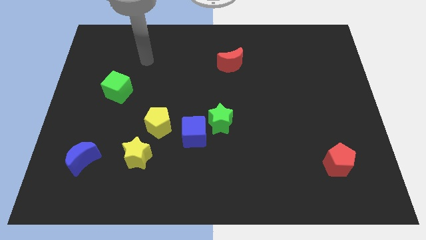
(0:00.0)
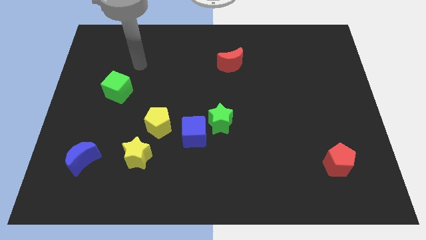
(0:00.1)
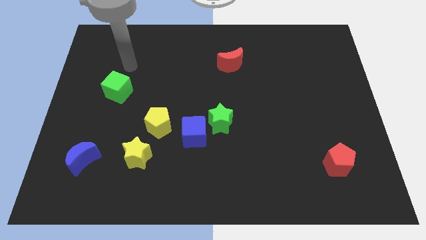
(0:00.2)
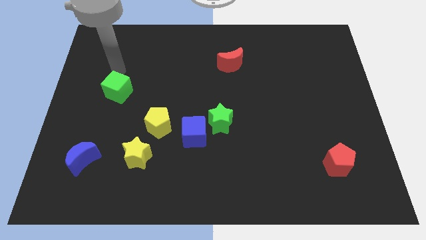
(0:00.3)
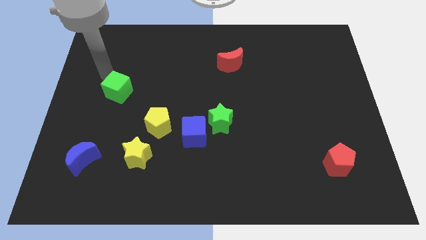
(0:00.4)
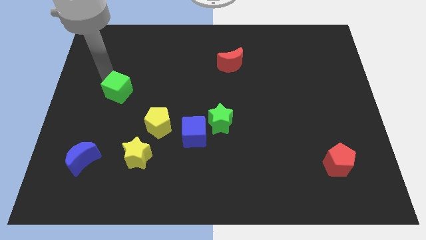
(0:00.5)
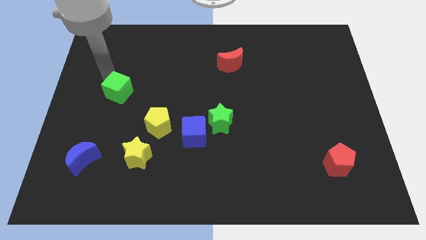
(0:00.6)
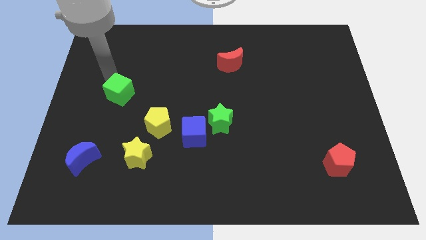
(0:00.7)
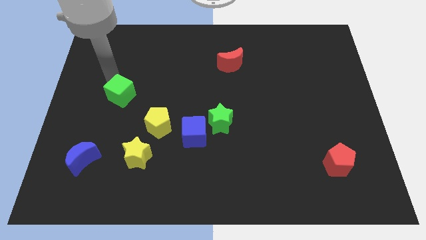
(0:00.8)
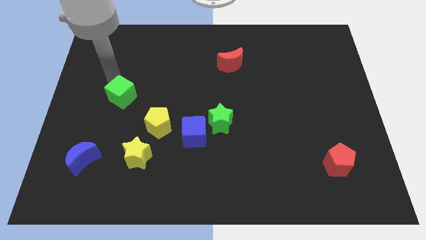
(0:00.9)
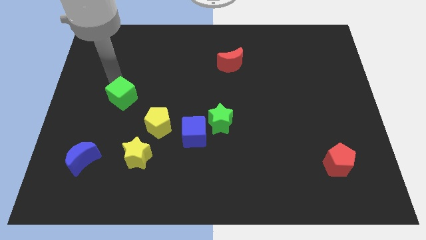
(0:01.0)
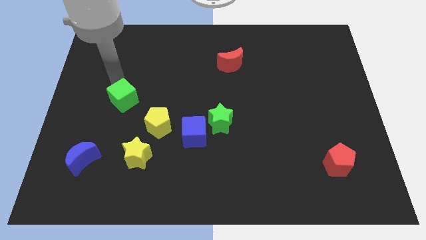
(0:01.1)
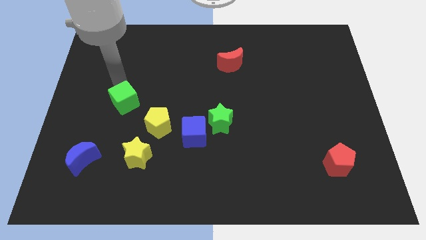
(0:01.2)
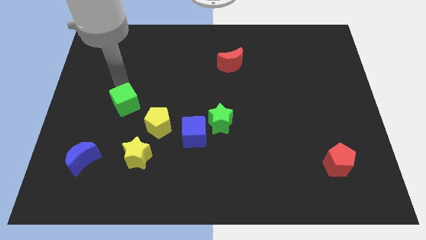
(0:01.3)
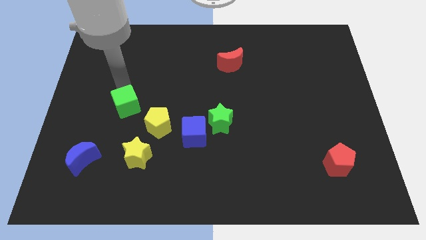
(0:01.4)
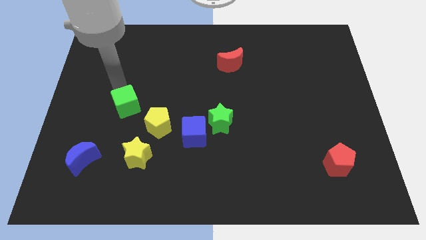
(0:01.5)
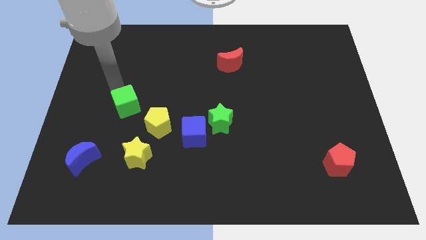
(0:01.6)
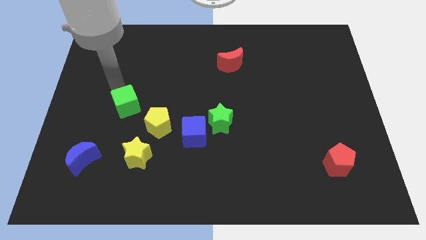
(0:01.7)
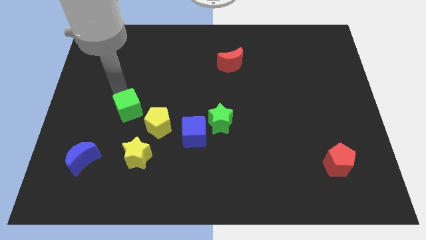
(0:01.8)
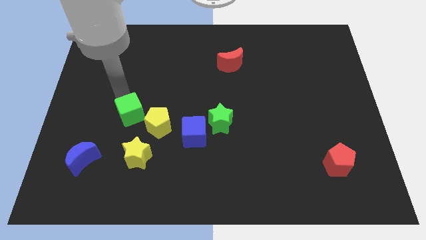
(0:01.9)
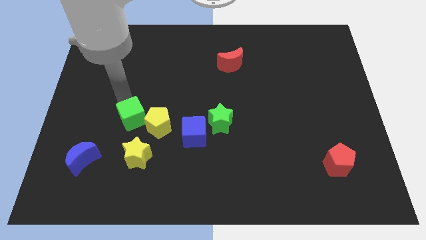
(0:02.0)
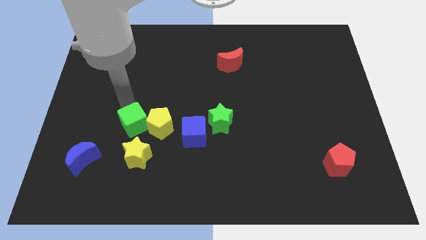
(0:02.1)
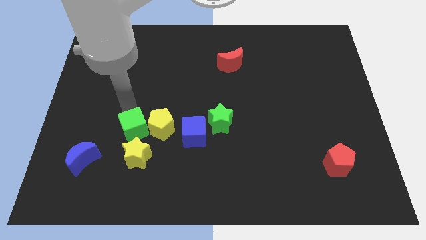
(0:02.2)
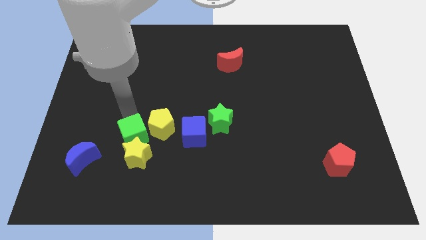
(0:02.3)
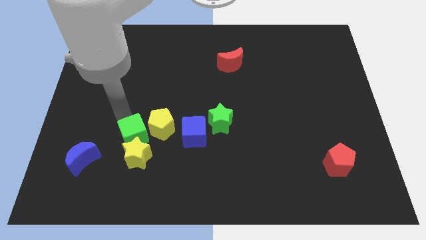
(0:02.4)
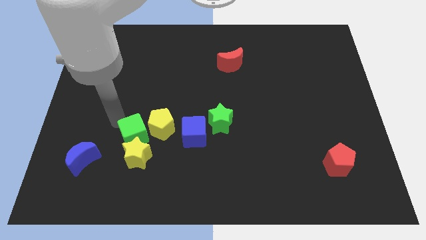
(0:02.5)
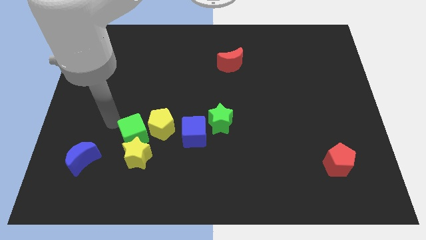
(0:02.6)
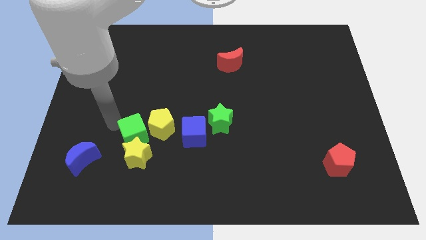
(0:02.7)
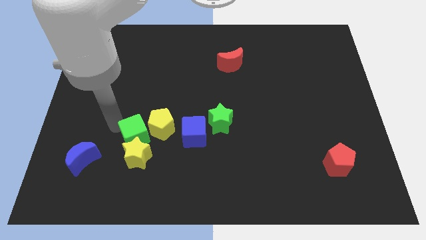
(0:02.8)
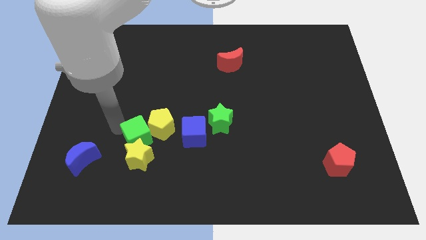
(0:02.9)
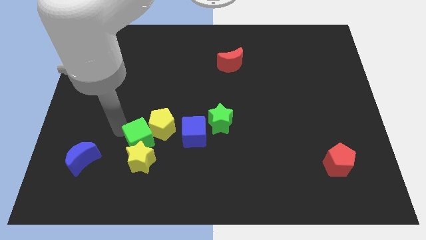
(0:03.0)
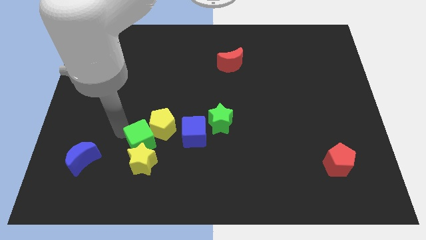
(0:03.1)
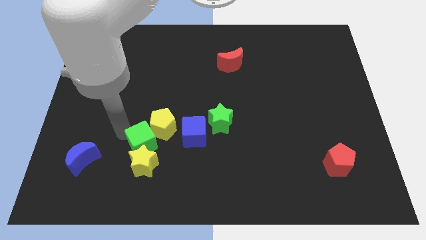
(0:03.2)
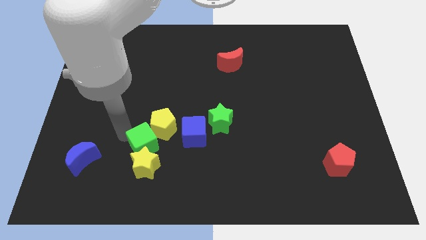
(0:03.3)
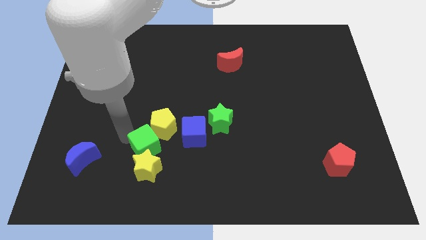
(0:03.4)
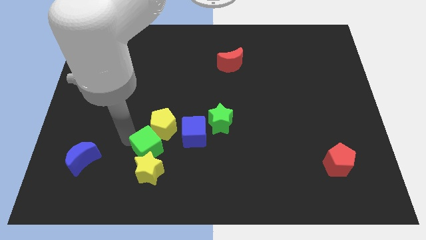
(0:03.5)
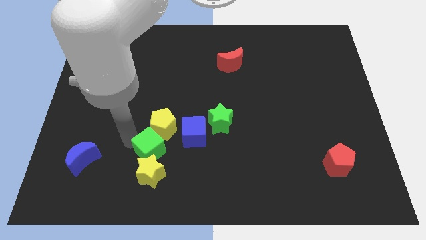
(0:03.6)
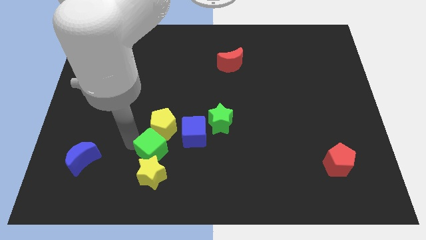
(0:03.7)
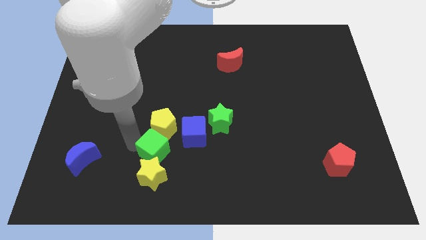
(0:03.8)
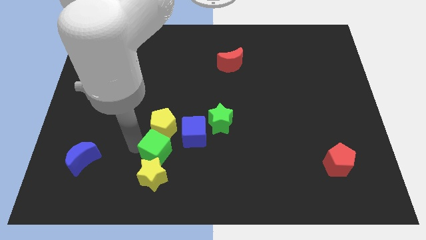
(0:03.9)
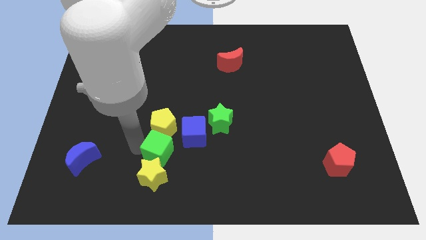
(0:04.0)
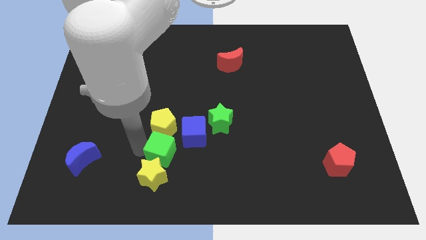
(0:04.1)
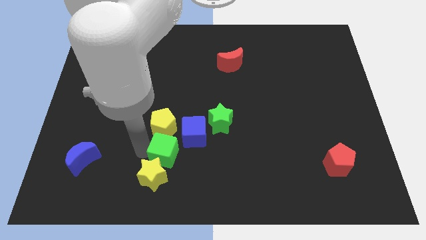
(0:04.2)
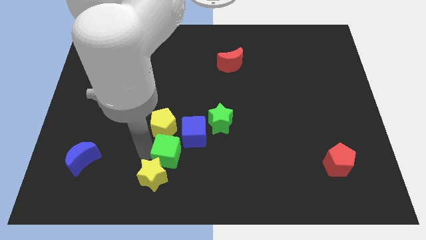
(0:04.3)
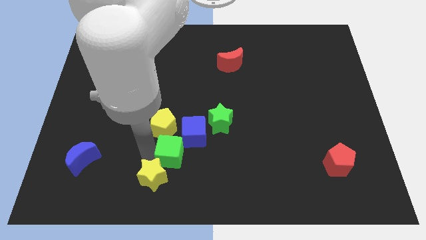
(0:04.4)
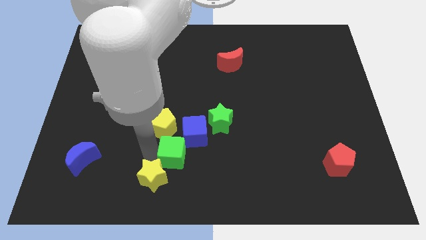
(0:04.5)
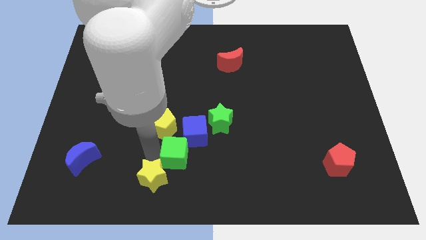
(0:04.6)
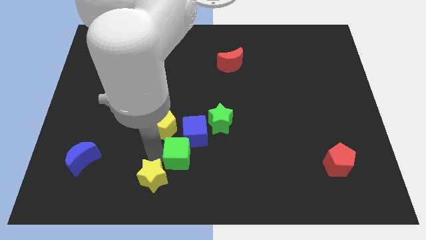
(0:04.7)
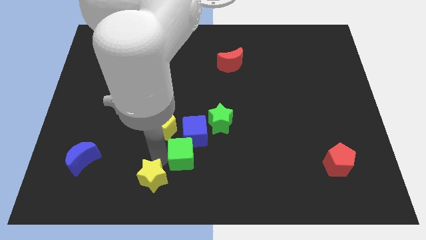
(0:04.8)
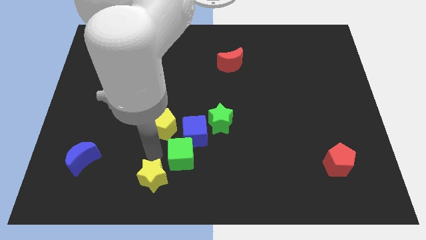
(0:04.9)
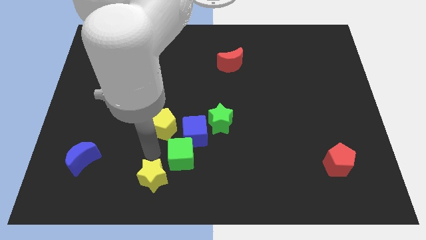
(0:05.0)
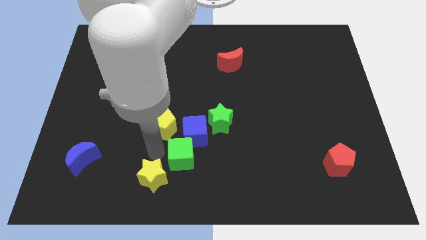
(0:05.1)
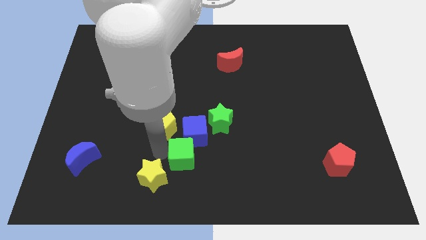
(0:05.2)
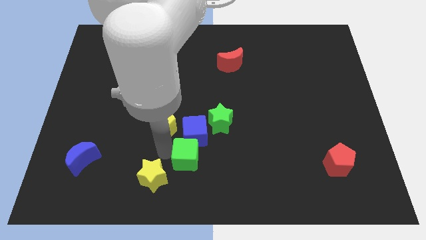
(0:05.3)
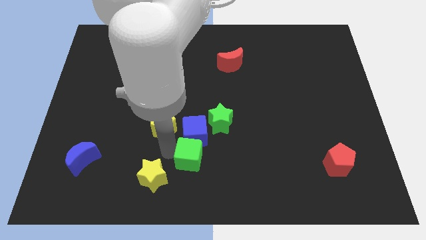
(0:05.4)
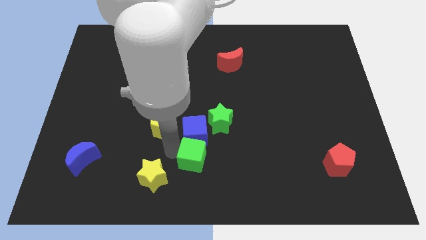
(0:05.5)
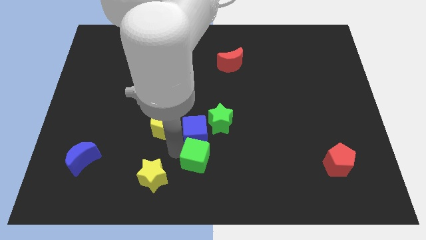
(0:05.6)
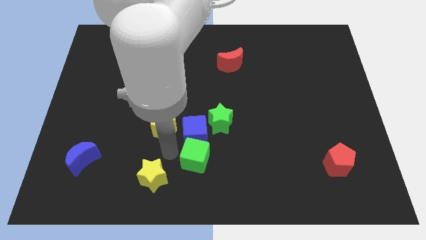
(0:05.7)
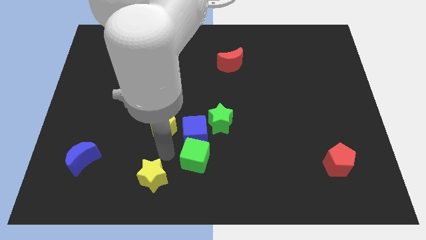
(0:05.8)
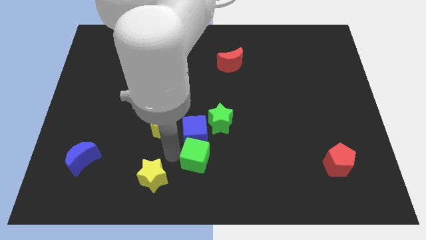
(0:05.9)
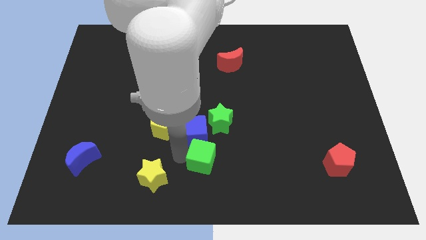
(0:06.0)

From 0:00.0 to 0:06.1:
move the green cube to the bottom of the green star

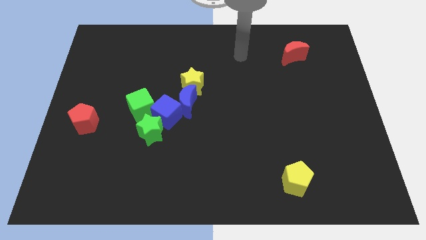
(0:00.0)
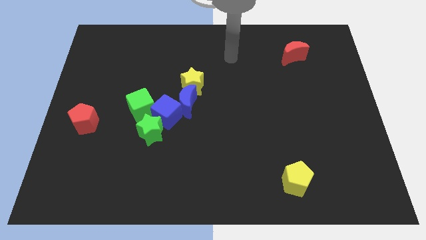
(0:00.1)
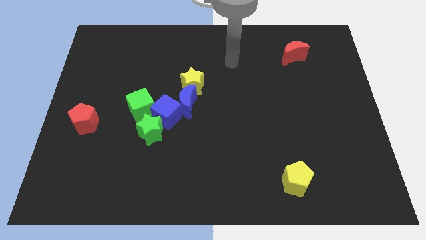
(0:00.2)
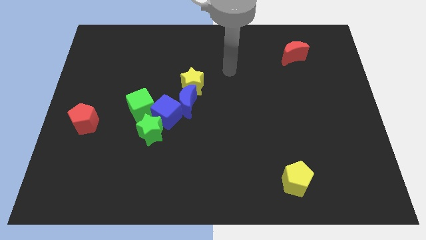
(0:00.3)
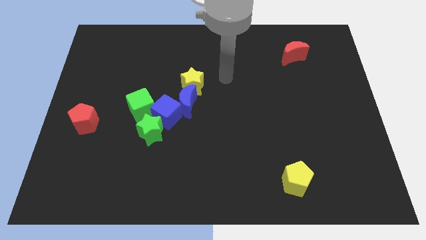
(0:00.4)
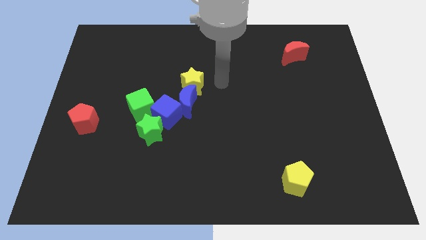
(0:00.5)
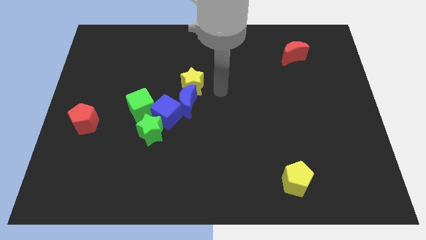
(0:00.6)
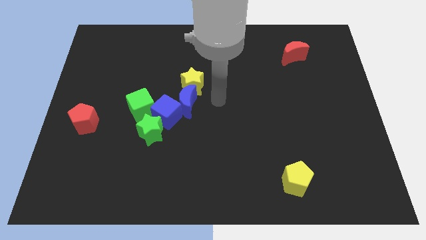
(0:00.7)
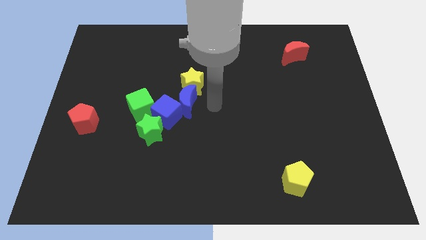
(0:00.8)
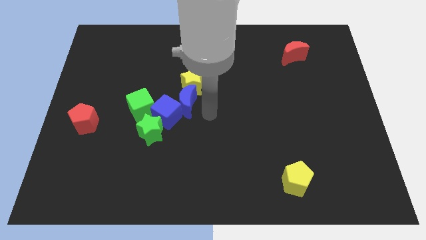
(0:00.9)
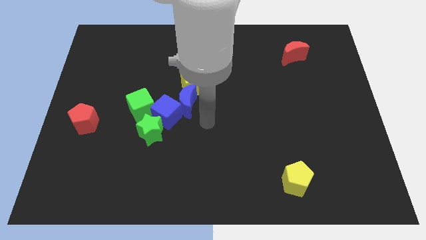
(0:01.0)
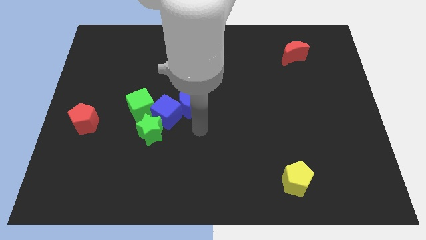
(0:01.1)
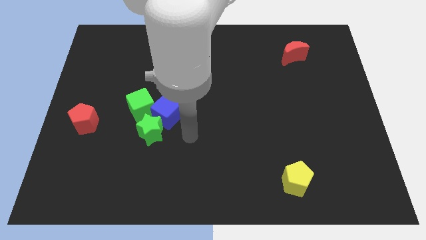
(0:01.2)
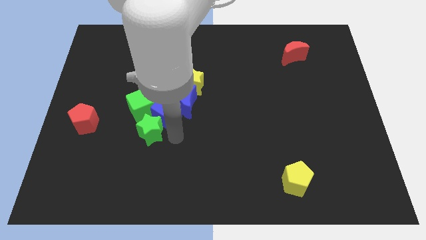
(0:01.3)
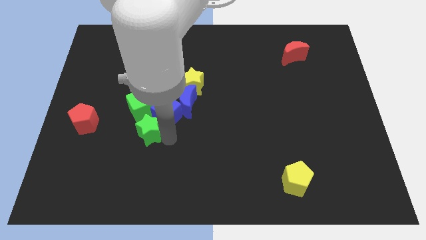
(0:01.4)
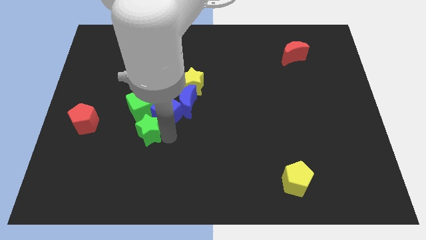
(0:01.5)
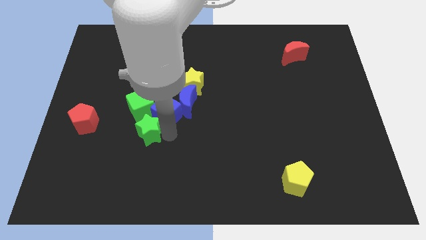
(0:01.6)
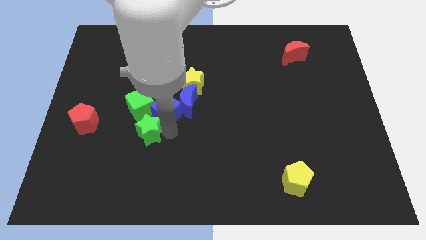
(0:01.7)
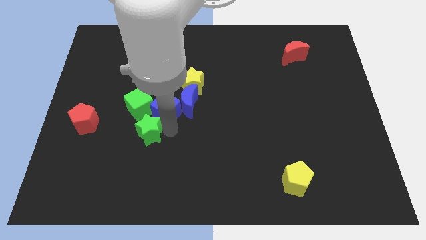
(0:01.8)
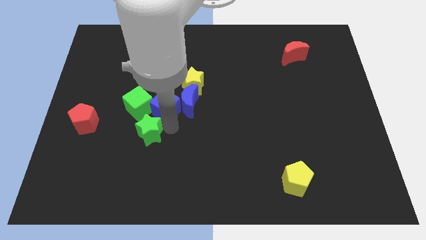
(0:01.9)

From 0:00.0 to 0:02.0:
move the blue cube diagonally up and to the right of the green cube
